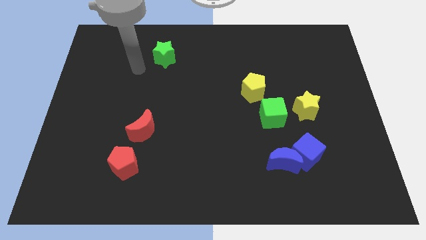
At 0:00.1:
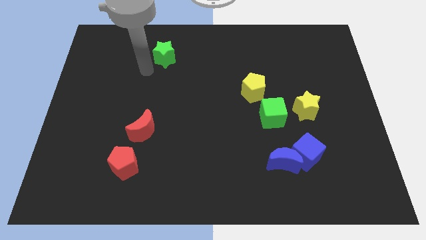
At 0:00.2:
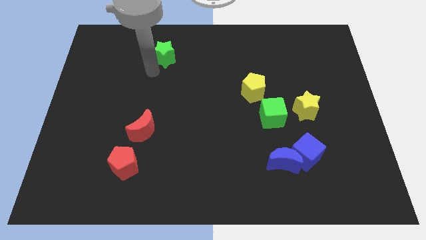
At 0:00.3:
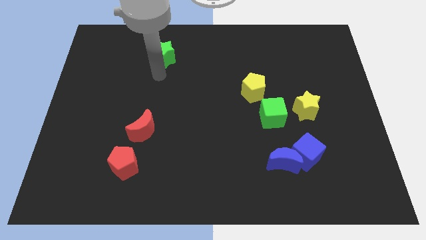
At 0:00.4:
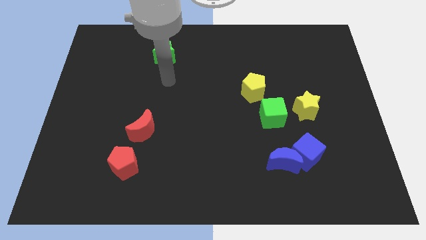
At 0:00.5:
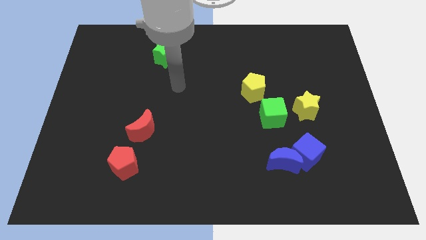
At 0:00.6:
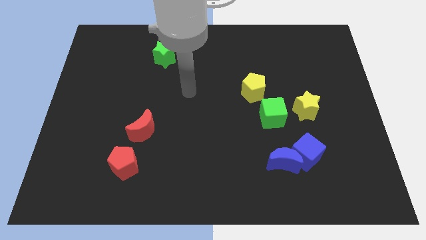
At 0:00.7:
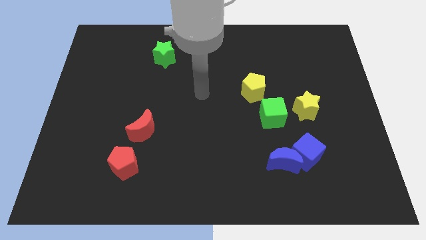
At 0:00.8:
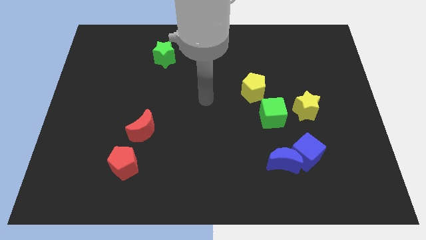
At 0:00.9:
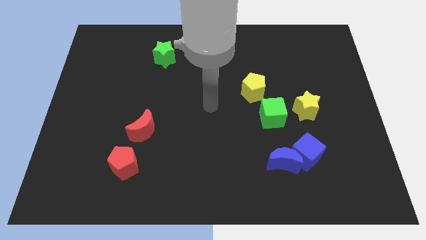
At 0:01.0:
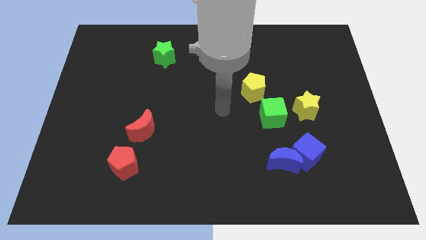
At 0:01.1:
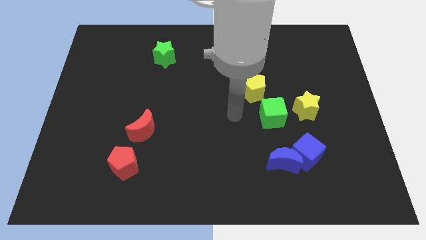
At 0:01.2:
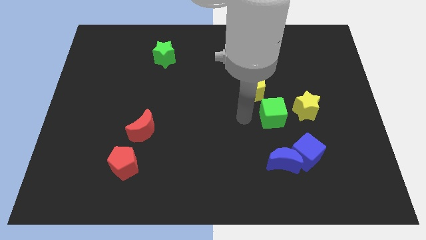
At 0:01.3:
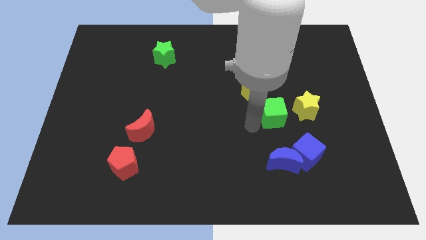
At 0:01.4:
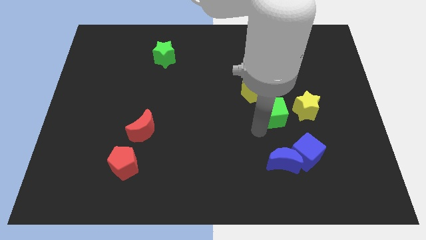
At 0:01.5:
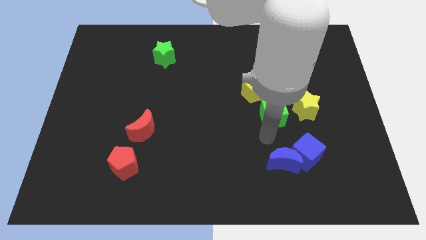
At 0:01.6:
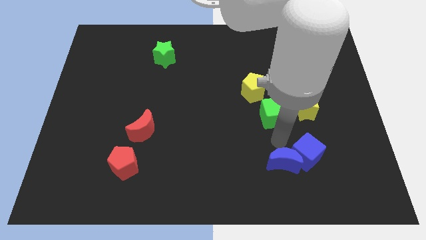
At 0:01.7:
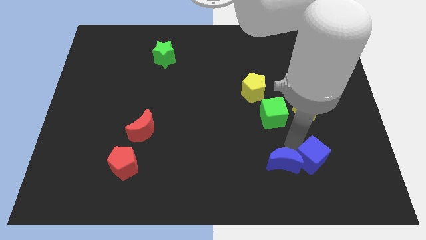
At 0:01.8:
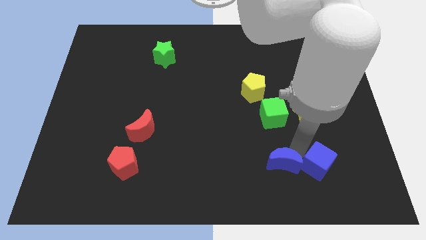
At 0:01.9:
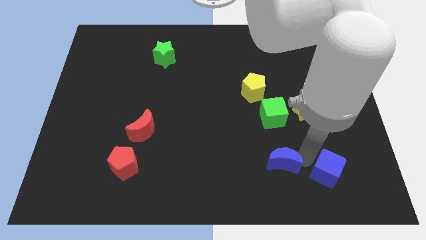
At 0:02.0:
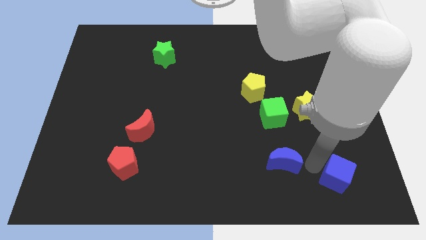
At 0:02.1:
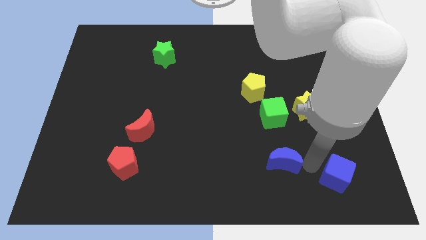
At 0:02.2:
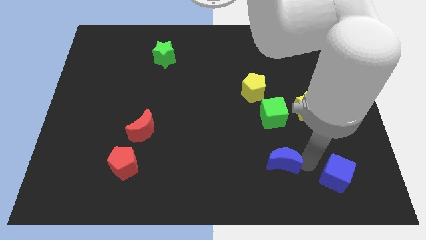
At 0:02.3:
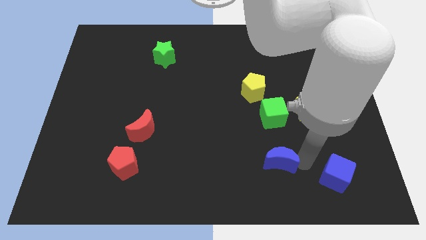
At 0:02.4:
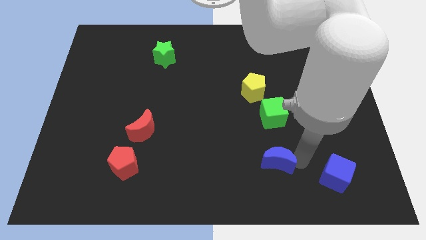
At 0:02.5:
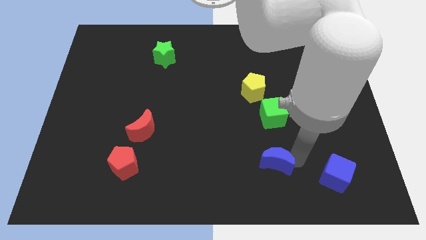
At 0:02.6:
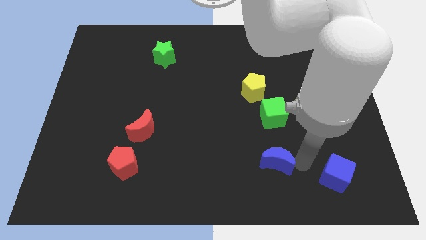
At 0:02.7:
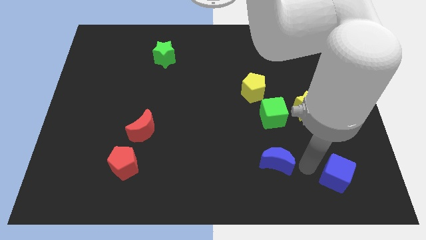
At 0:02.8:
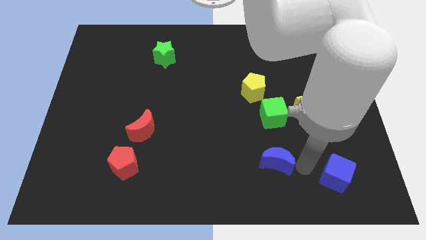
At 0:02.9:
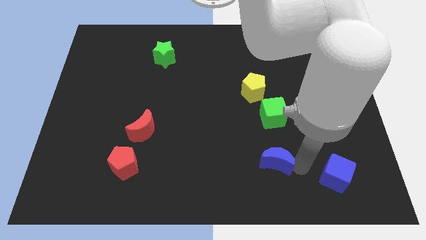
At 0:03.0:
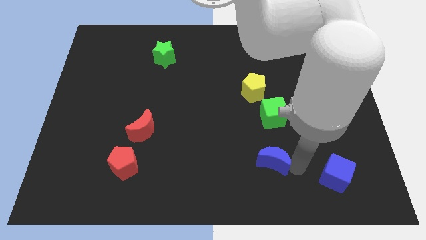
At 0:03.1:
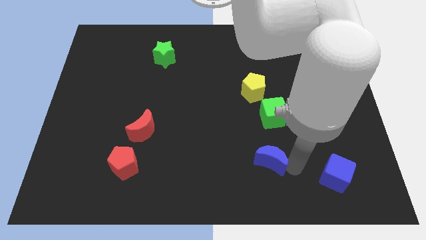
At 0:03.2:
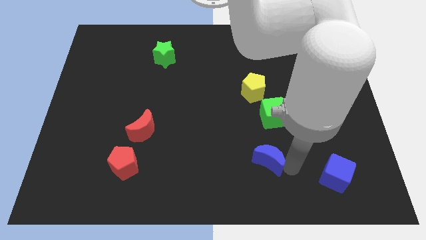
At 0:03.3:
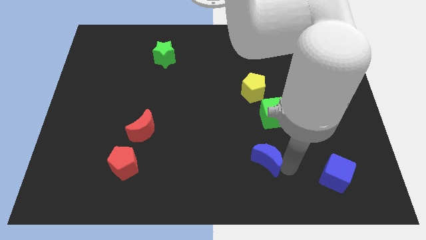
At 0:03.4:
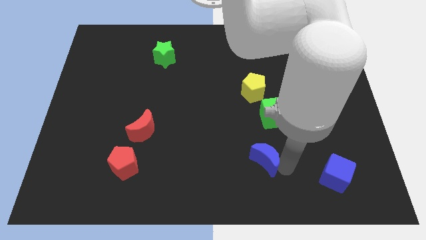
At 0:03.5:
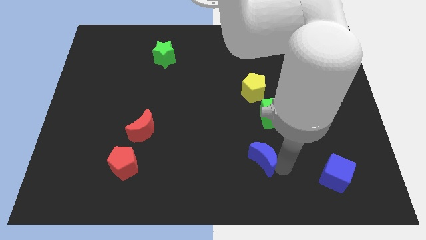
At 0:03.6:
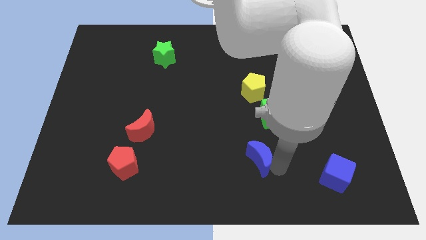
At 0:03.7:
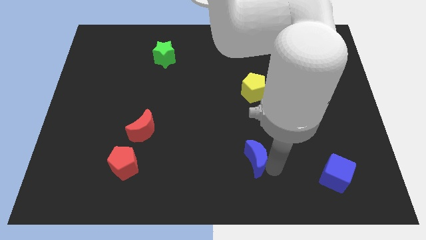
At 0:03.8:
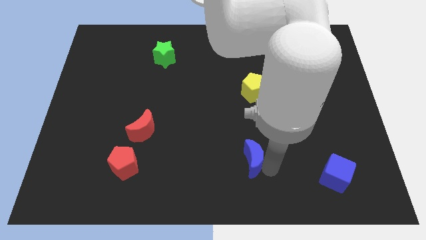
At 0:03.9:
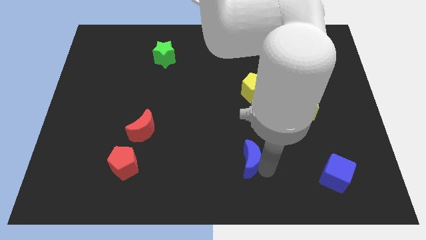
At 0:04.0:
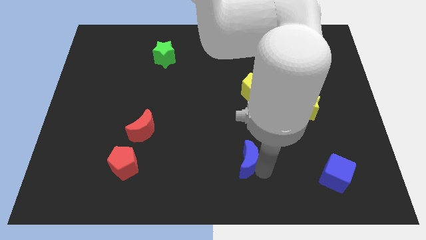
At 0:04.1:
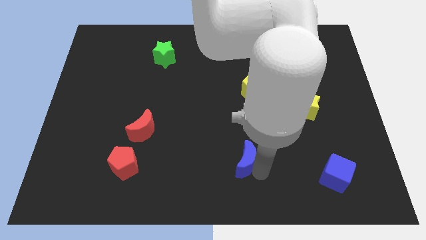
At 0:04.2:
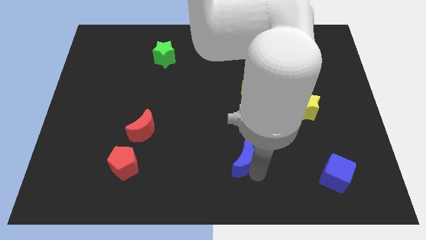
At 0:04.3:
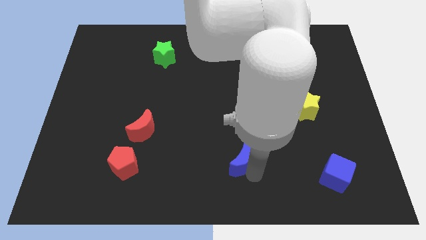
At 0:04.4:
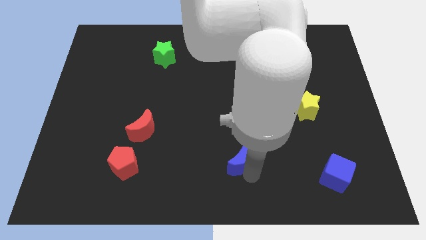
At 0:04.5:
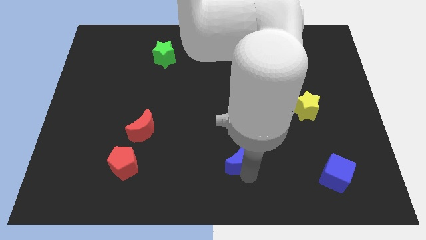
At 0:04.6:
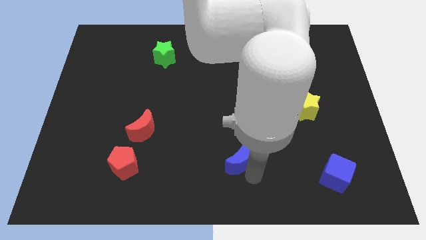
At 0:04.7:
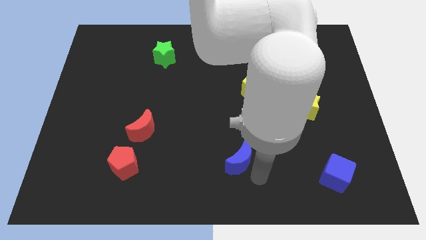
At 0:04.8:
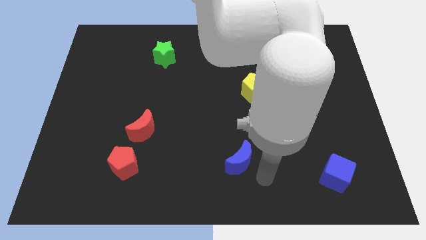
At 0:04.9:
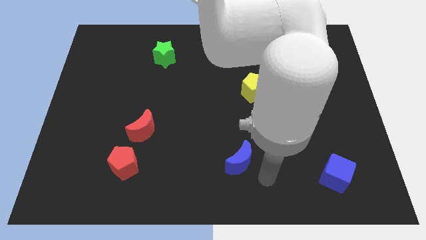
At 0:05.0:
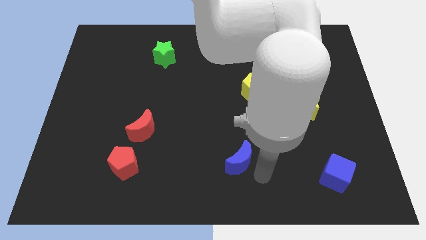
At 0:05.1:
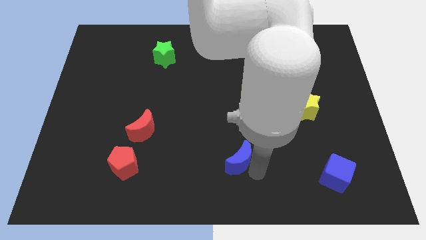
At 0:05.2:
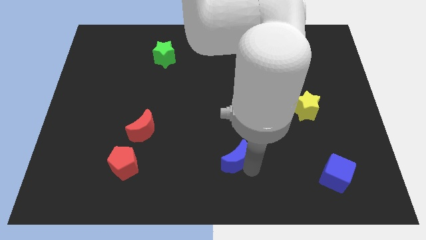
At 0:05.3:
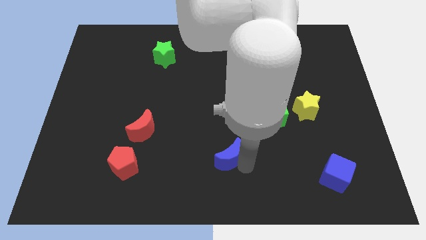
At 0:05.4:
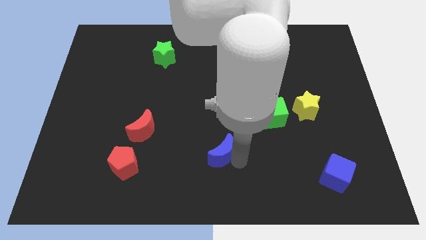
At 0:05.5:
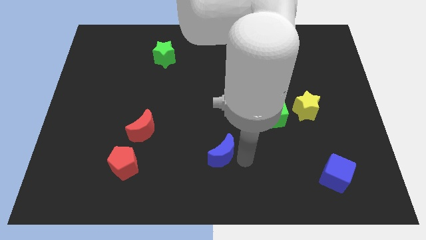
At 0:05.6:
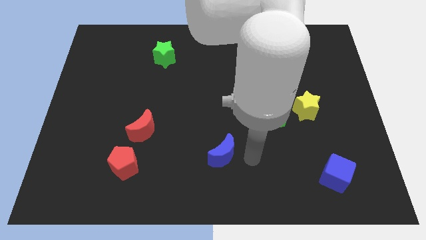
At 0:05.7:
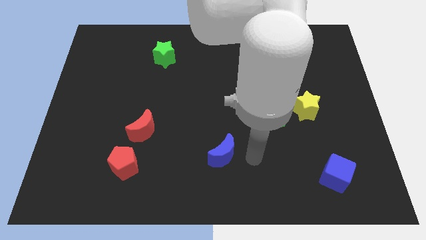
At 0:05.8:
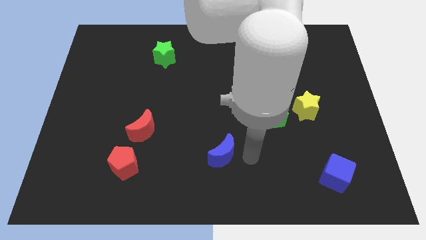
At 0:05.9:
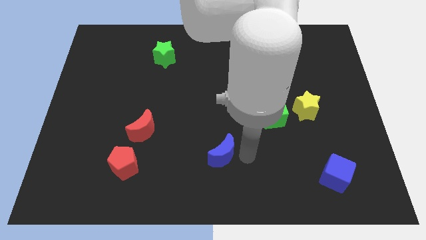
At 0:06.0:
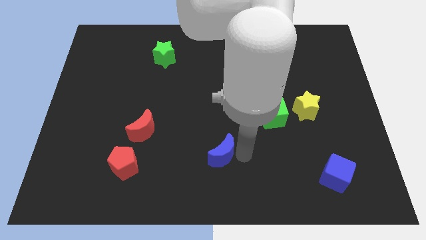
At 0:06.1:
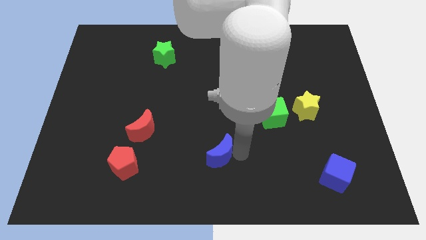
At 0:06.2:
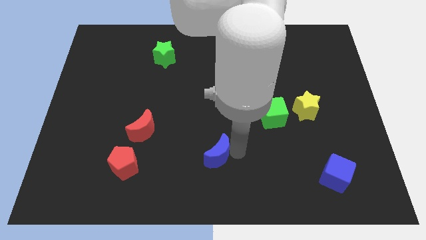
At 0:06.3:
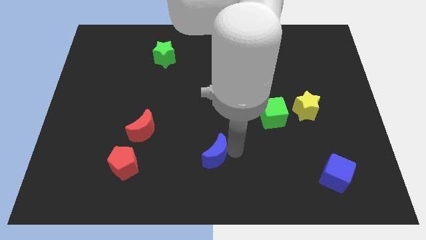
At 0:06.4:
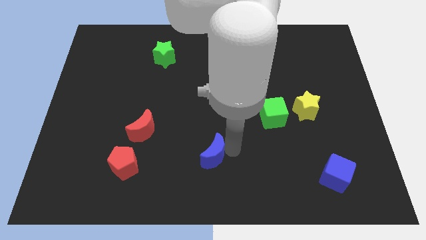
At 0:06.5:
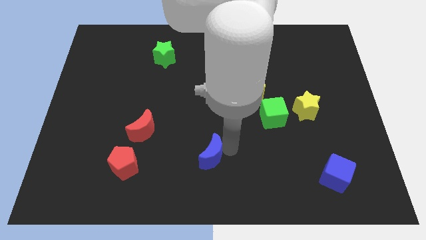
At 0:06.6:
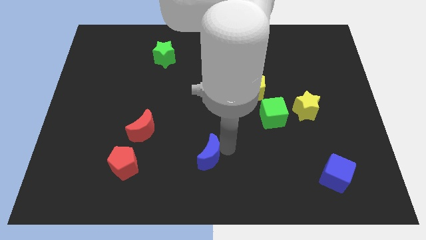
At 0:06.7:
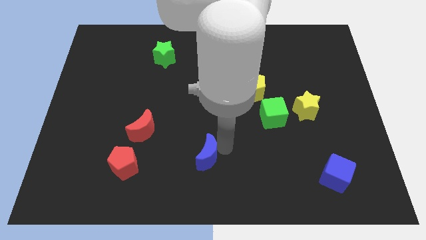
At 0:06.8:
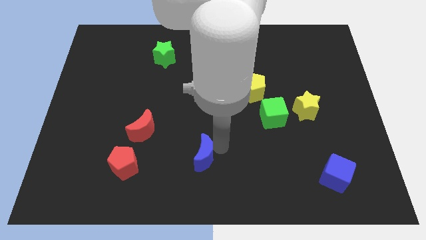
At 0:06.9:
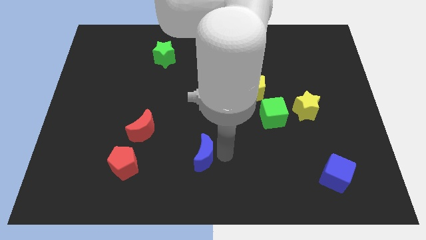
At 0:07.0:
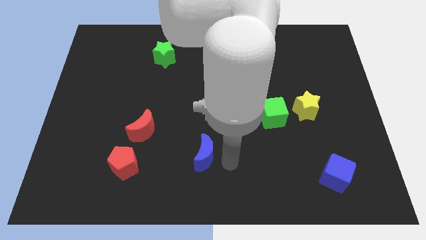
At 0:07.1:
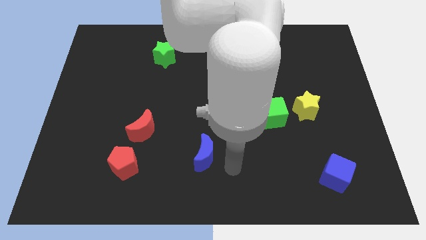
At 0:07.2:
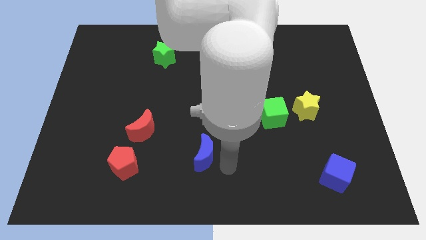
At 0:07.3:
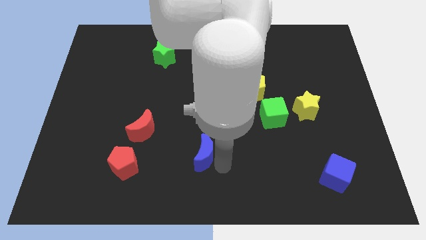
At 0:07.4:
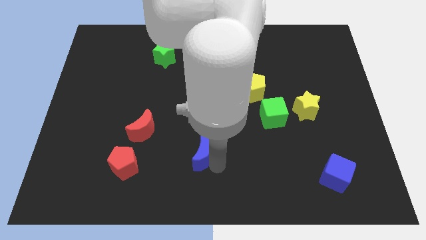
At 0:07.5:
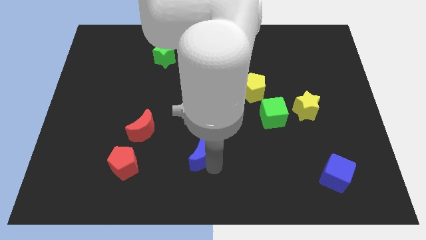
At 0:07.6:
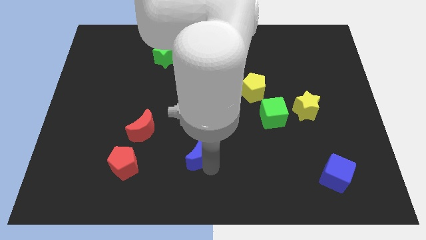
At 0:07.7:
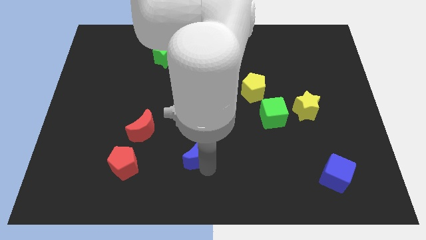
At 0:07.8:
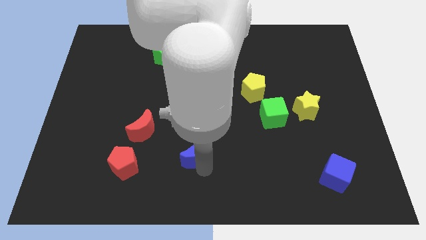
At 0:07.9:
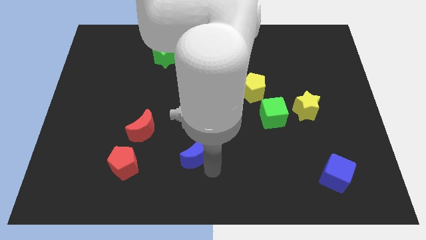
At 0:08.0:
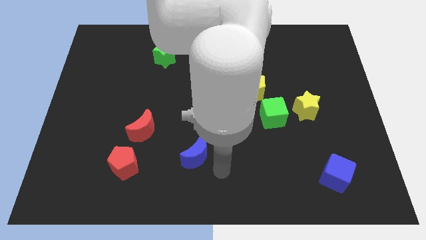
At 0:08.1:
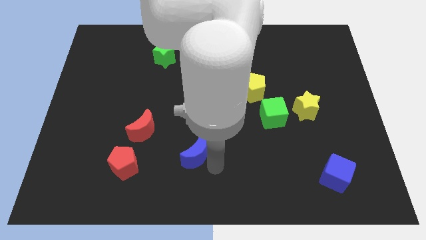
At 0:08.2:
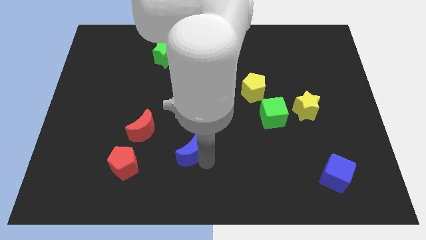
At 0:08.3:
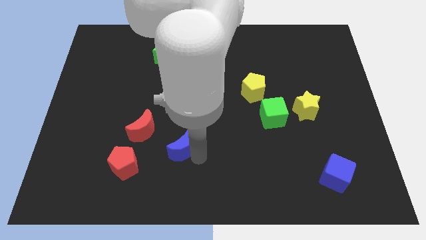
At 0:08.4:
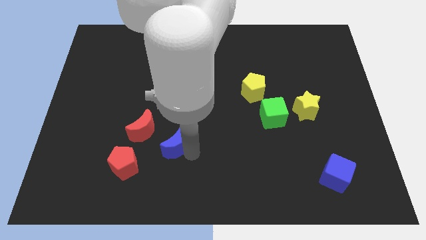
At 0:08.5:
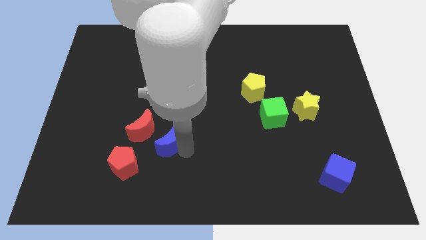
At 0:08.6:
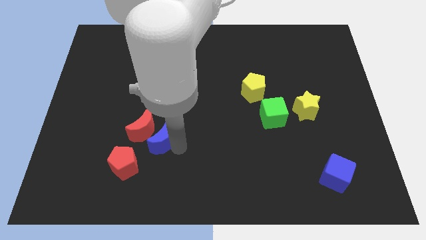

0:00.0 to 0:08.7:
move the blue moon close to the red moon
